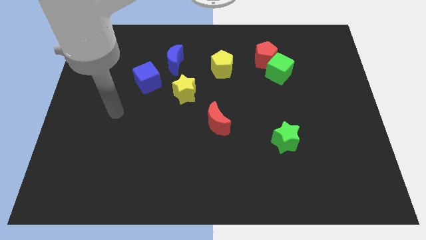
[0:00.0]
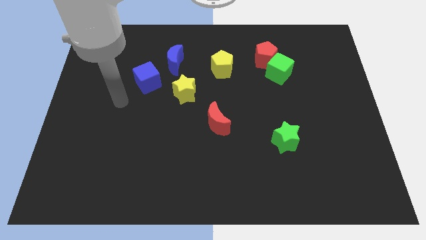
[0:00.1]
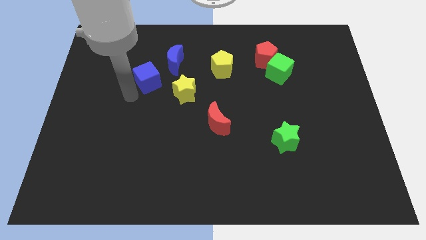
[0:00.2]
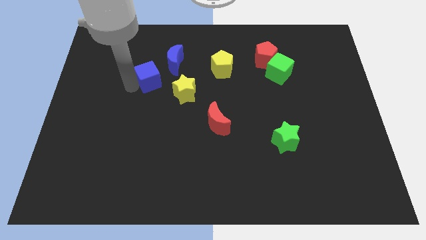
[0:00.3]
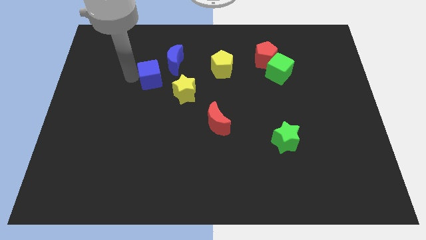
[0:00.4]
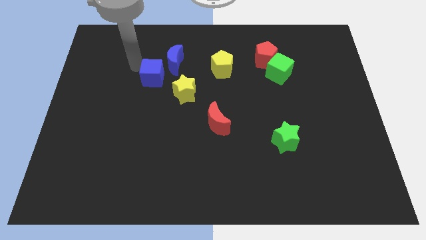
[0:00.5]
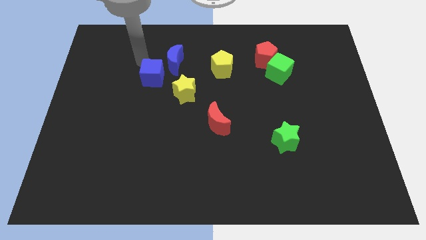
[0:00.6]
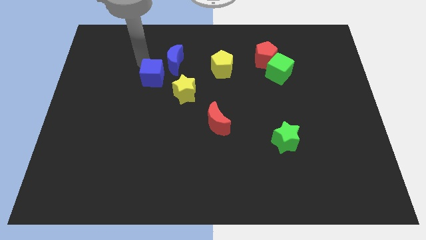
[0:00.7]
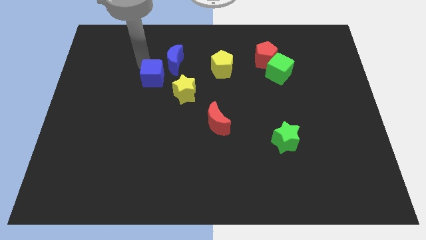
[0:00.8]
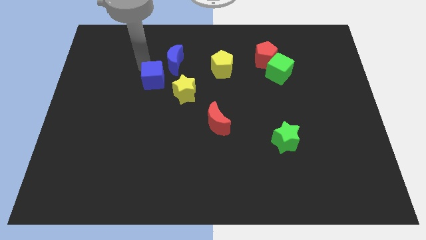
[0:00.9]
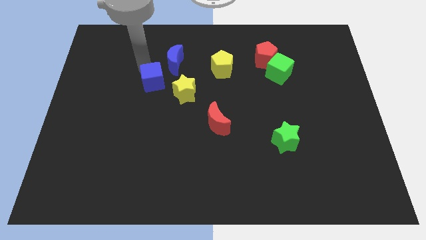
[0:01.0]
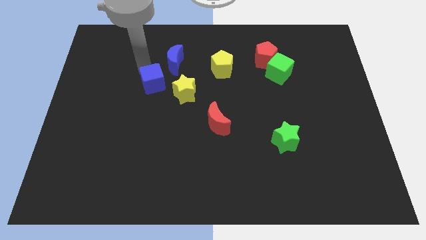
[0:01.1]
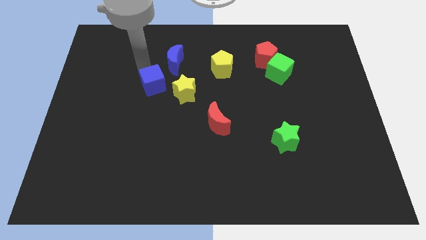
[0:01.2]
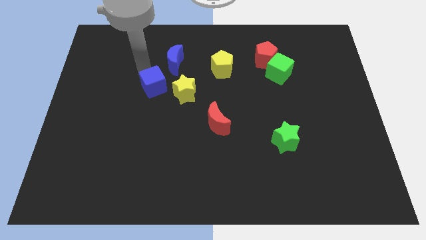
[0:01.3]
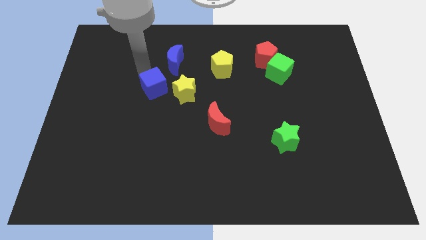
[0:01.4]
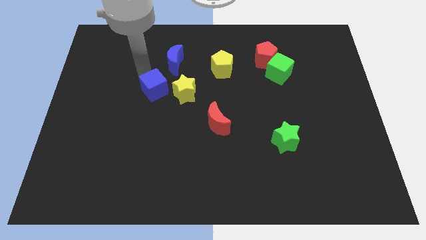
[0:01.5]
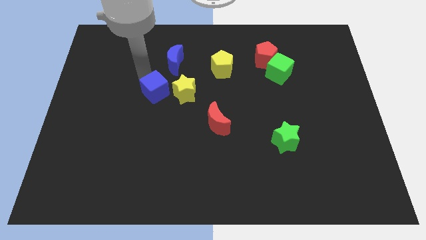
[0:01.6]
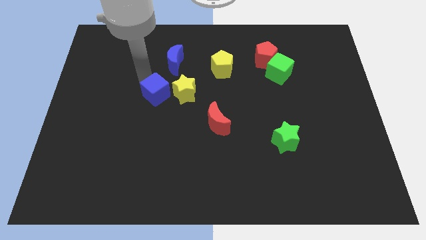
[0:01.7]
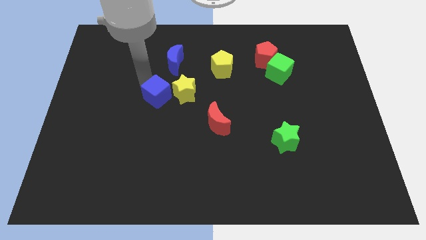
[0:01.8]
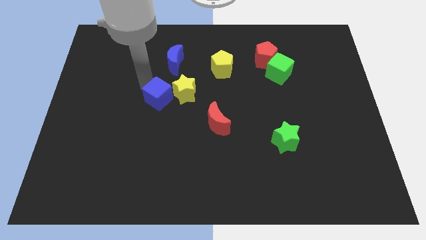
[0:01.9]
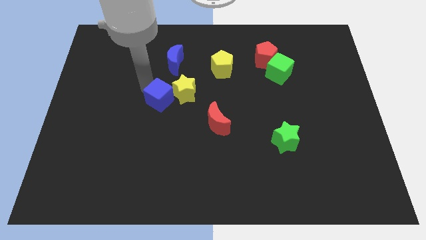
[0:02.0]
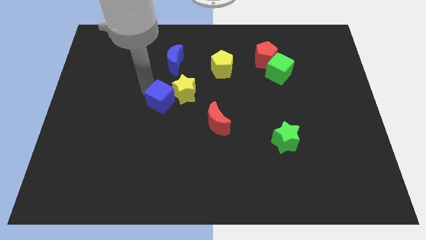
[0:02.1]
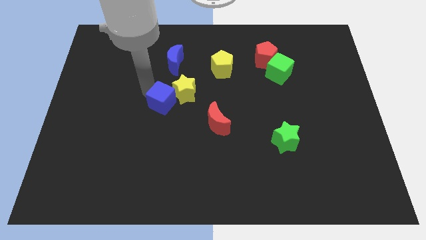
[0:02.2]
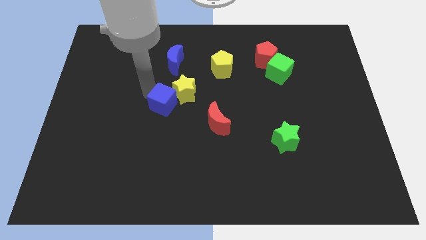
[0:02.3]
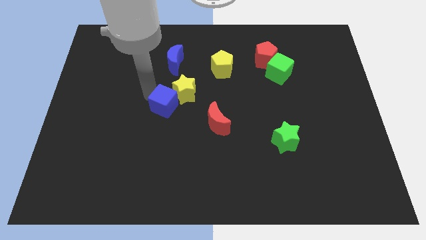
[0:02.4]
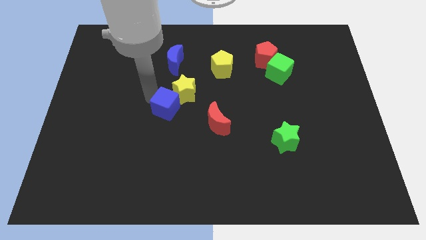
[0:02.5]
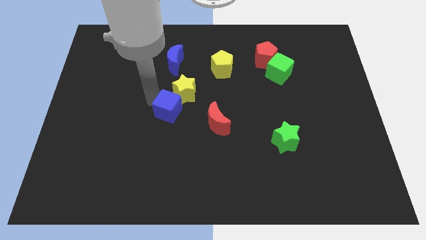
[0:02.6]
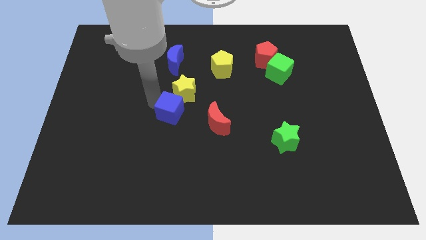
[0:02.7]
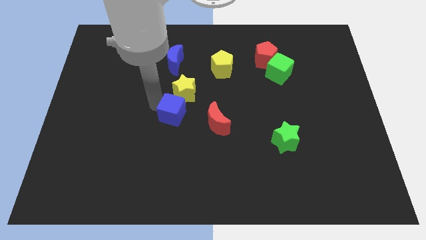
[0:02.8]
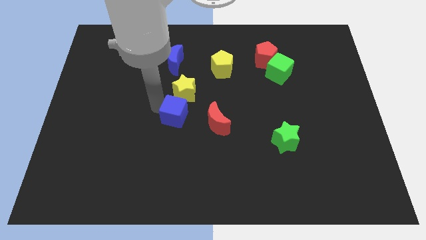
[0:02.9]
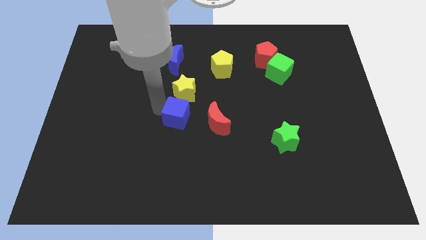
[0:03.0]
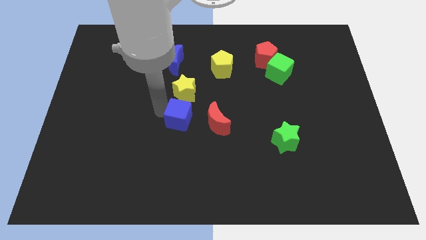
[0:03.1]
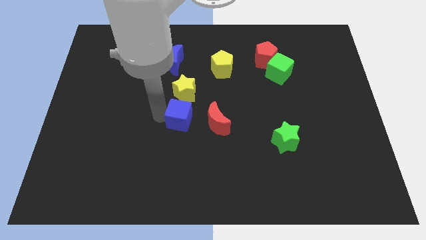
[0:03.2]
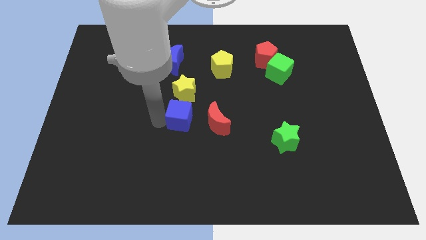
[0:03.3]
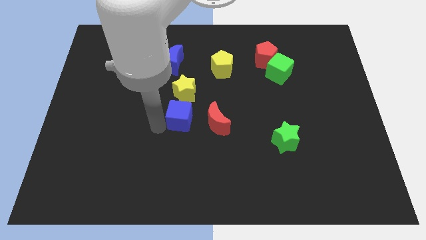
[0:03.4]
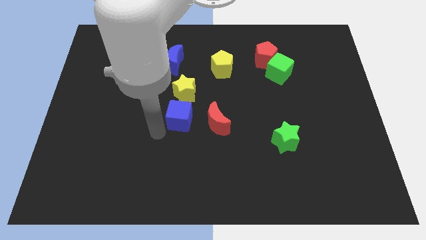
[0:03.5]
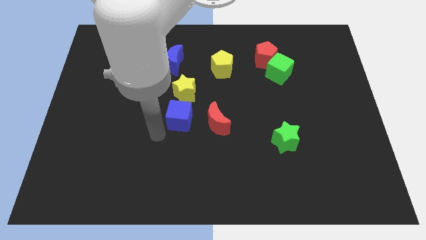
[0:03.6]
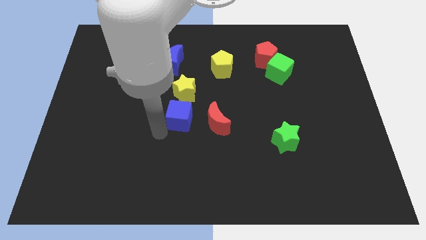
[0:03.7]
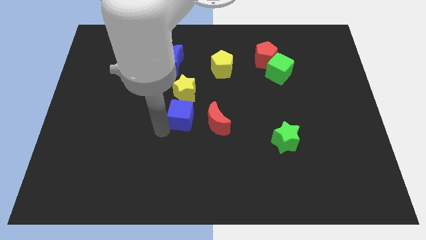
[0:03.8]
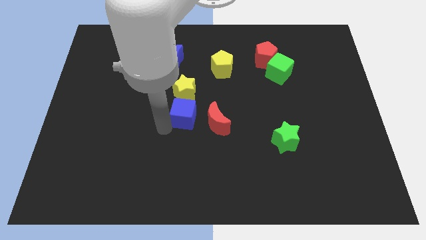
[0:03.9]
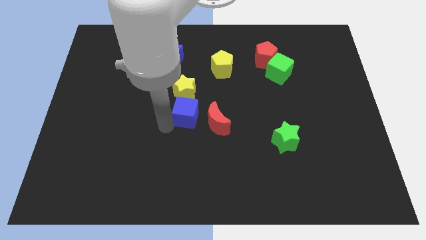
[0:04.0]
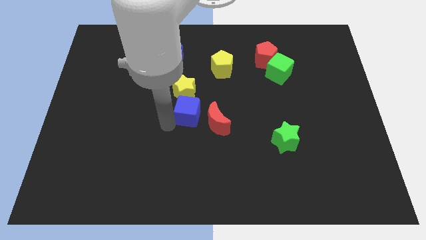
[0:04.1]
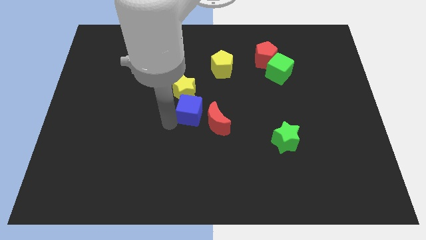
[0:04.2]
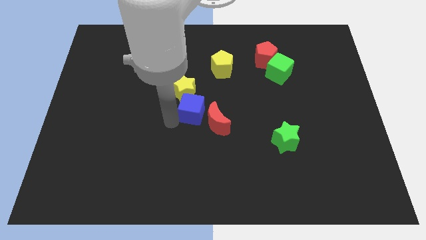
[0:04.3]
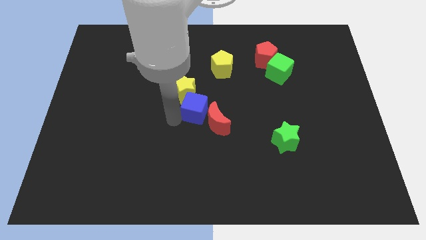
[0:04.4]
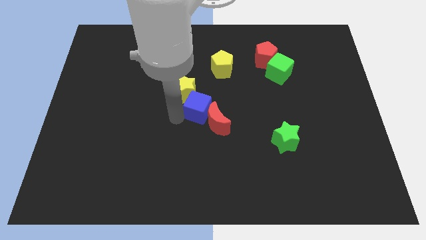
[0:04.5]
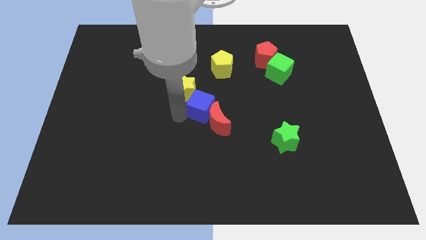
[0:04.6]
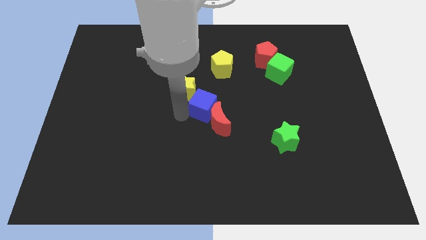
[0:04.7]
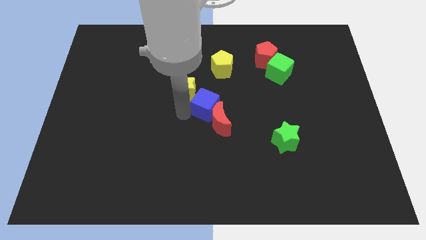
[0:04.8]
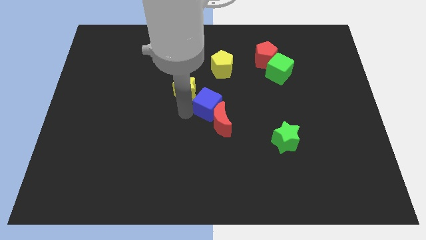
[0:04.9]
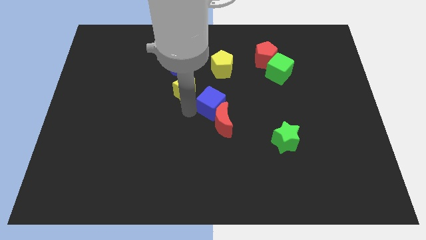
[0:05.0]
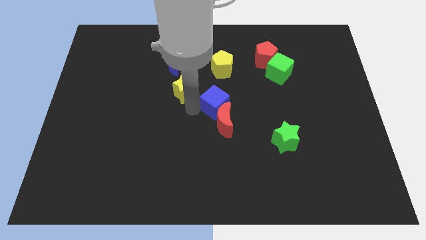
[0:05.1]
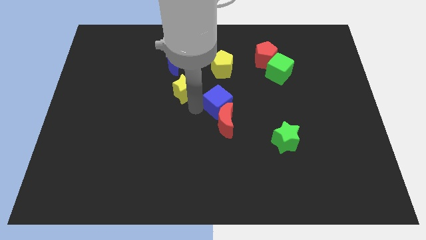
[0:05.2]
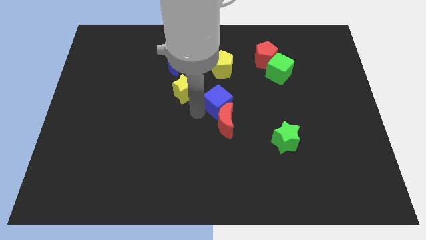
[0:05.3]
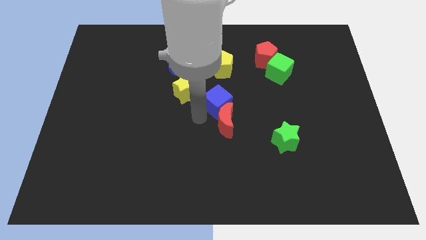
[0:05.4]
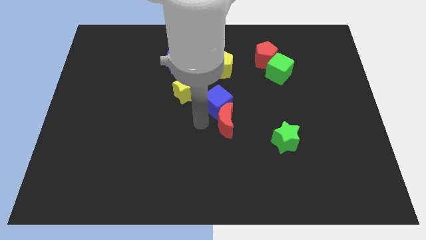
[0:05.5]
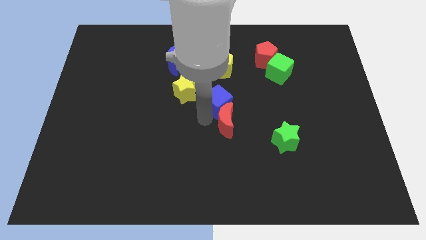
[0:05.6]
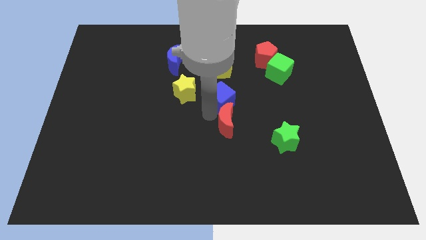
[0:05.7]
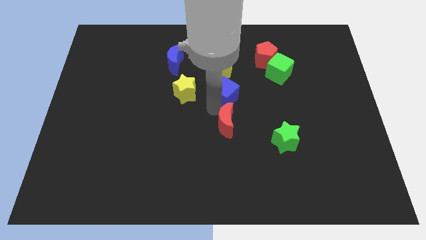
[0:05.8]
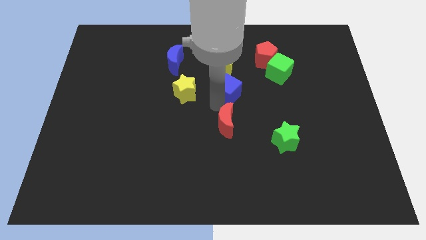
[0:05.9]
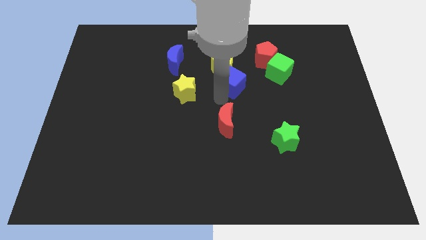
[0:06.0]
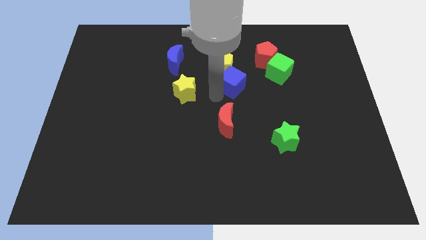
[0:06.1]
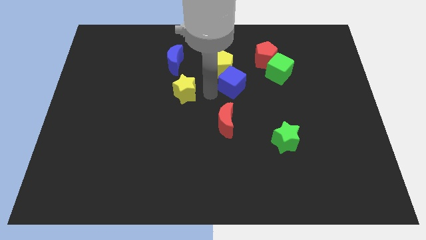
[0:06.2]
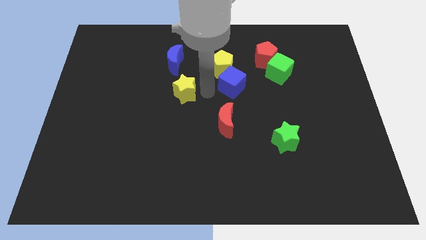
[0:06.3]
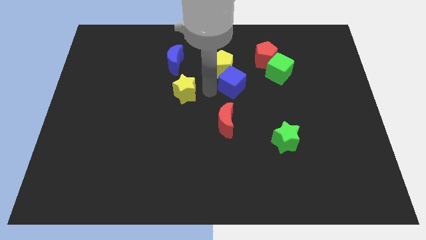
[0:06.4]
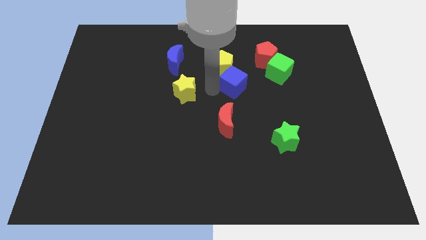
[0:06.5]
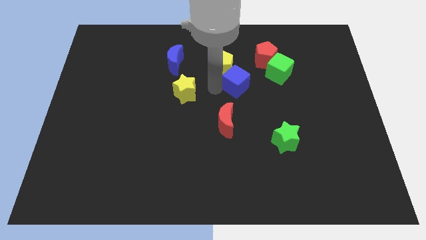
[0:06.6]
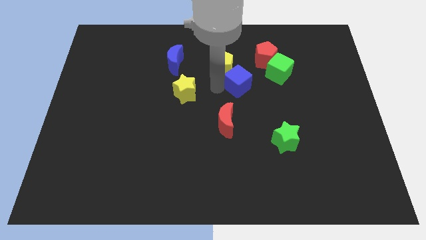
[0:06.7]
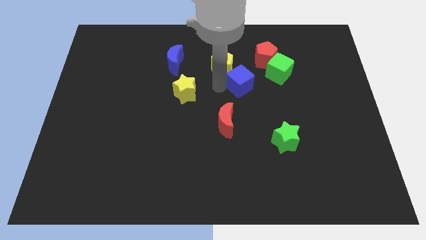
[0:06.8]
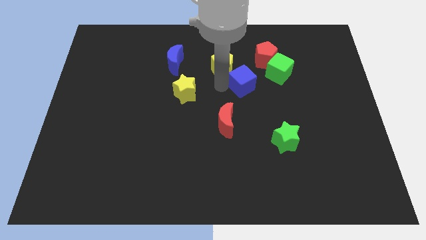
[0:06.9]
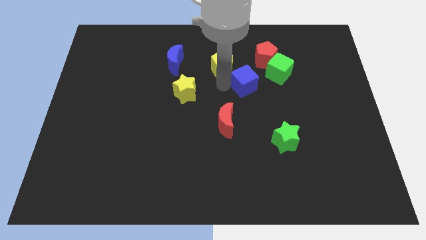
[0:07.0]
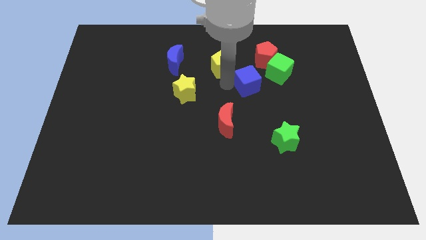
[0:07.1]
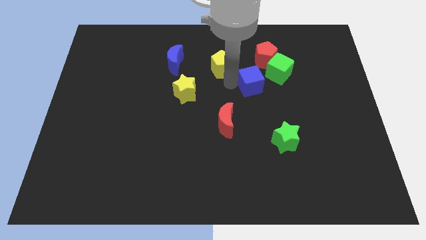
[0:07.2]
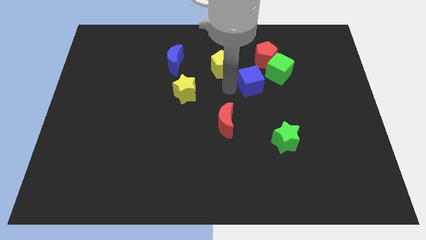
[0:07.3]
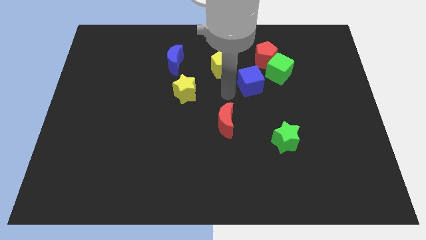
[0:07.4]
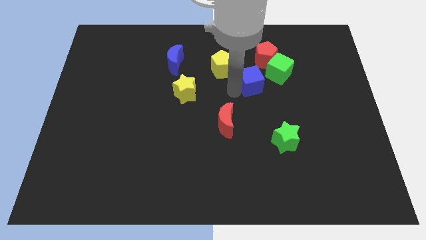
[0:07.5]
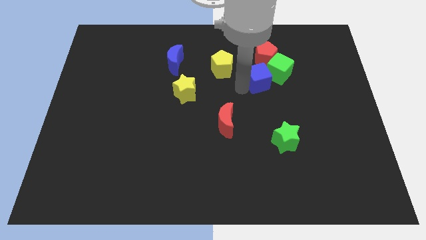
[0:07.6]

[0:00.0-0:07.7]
move the blue cube to the green cube

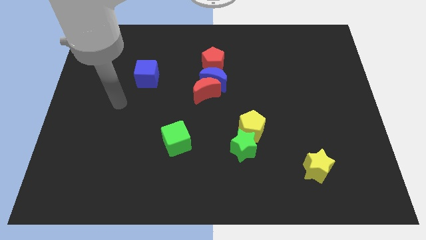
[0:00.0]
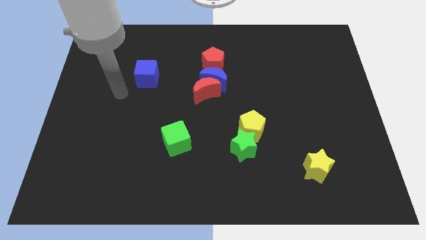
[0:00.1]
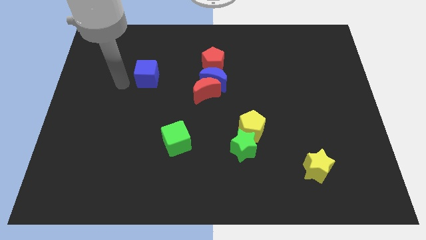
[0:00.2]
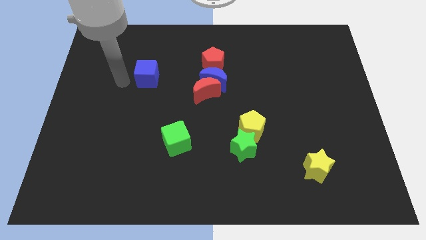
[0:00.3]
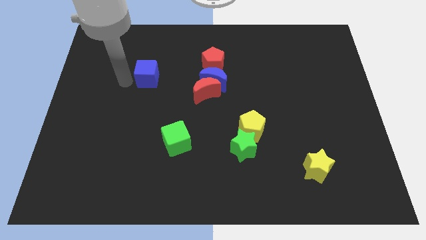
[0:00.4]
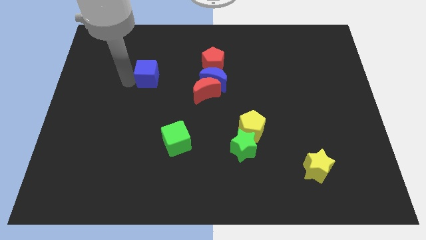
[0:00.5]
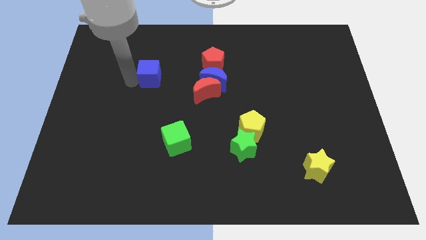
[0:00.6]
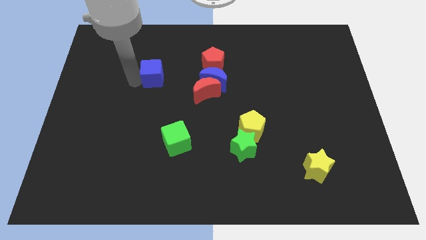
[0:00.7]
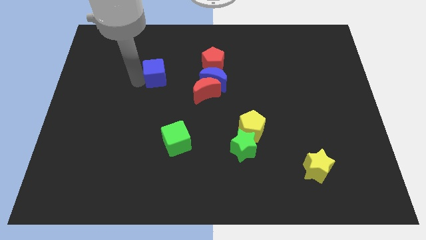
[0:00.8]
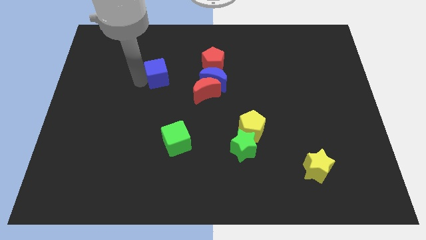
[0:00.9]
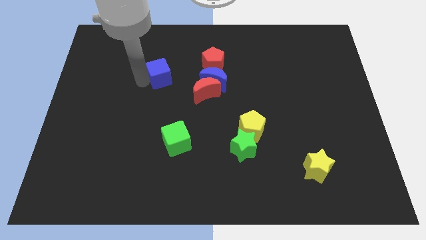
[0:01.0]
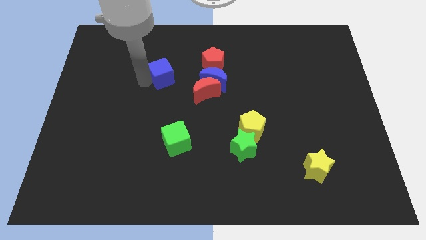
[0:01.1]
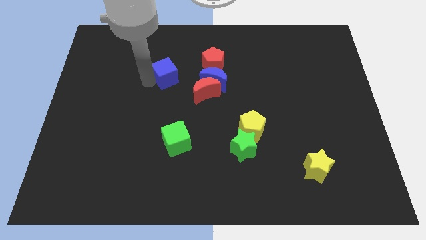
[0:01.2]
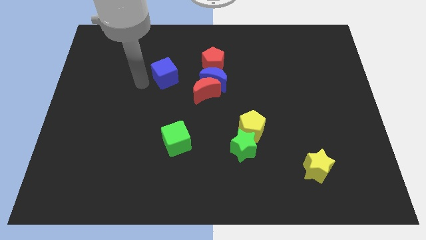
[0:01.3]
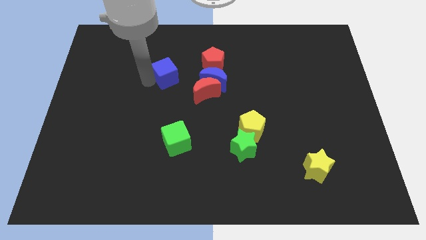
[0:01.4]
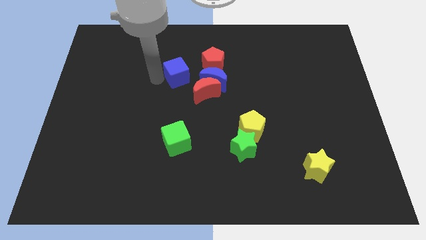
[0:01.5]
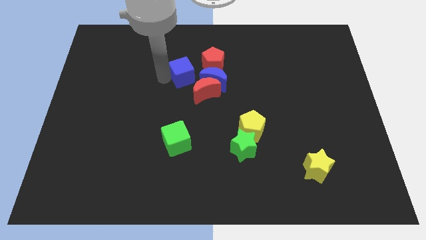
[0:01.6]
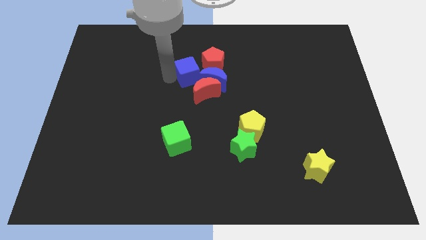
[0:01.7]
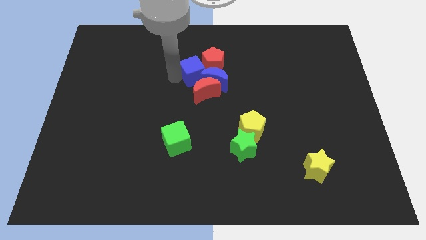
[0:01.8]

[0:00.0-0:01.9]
put the blue cube next to the red pentagon
